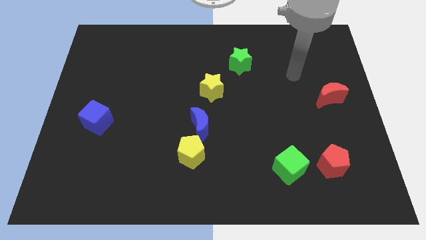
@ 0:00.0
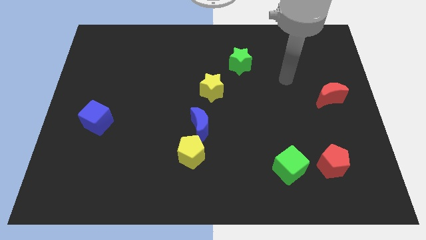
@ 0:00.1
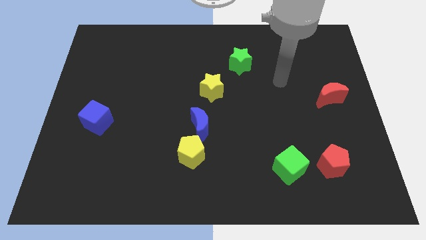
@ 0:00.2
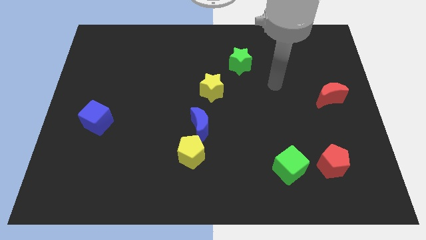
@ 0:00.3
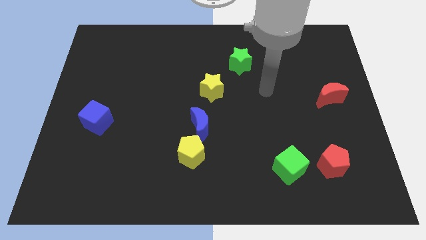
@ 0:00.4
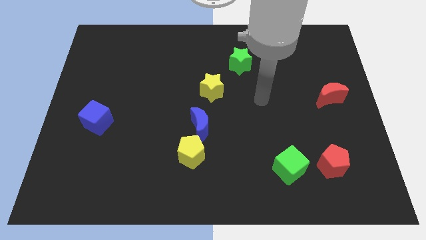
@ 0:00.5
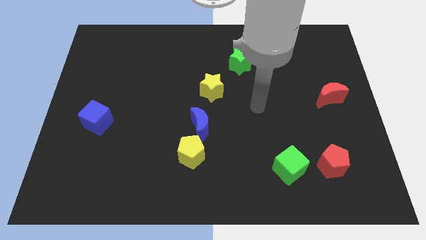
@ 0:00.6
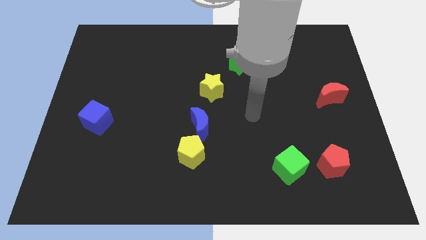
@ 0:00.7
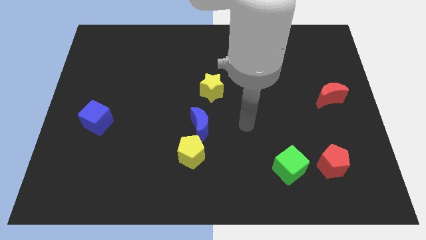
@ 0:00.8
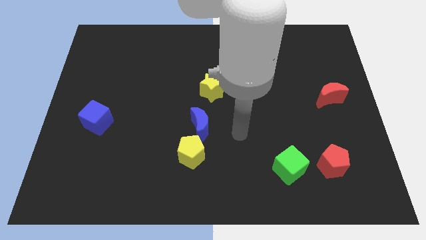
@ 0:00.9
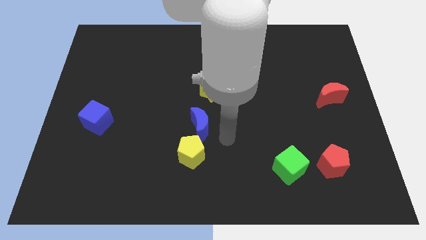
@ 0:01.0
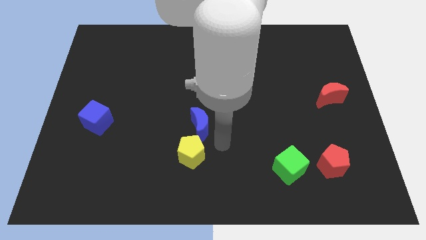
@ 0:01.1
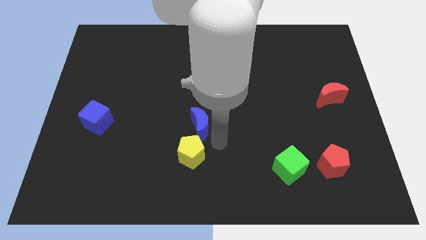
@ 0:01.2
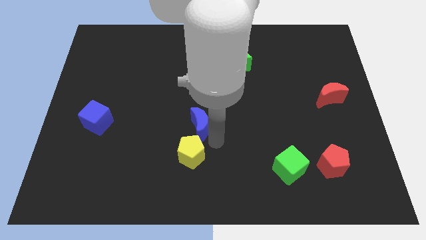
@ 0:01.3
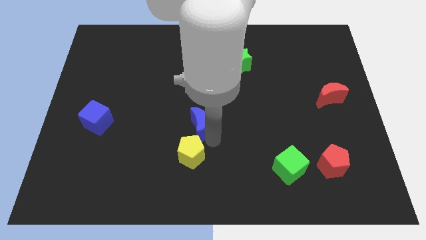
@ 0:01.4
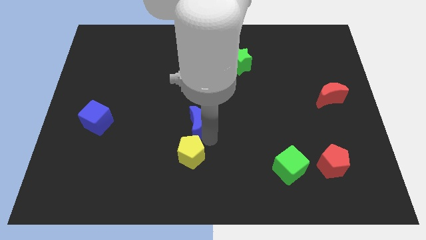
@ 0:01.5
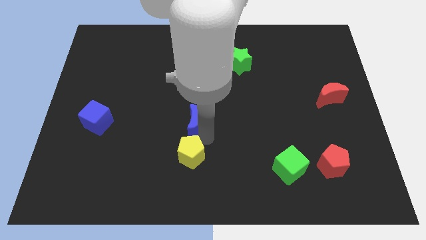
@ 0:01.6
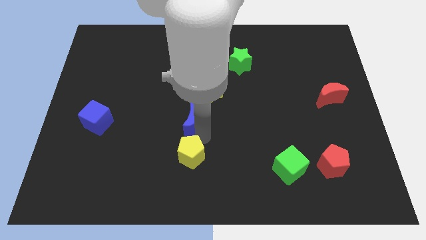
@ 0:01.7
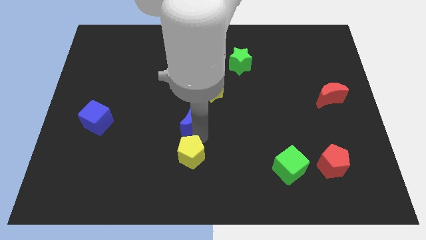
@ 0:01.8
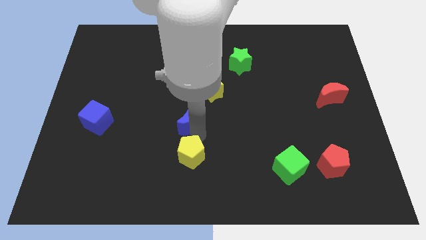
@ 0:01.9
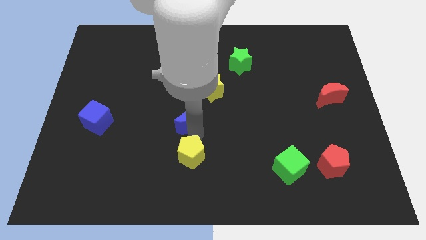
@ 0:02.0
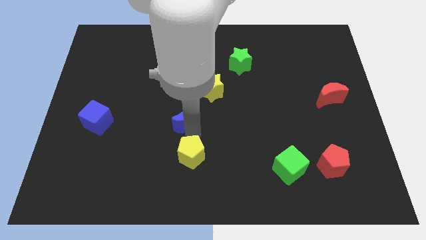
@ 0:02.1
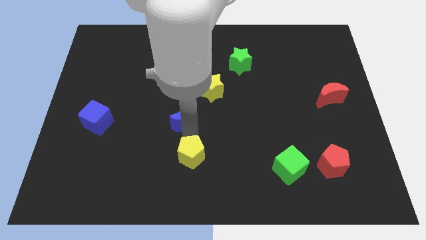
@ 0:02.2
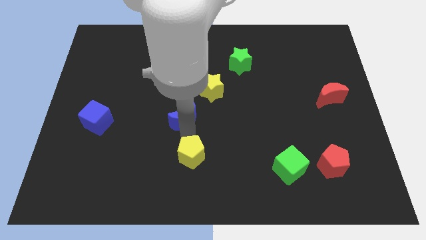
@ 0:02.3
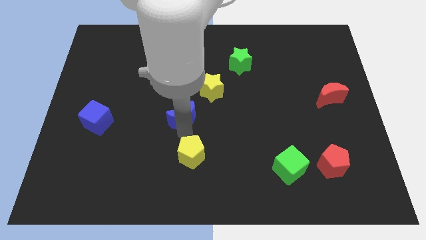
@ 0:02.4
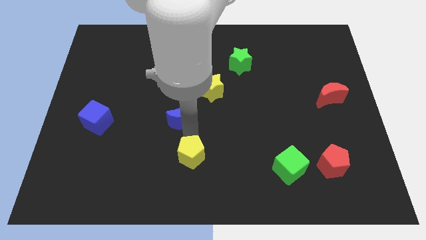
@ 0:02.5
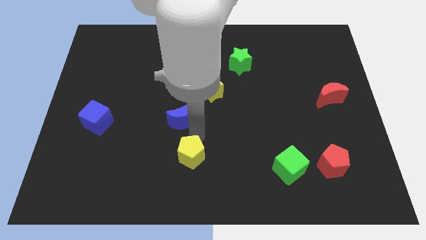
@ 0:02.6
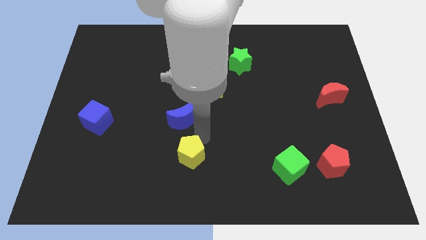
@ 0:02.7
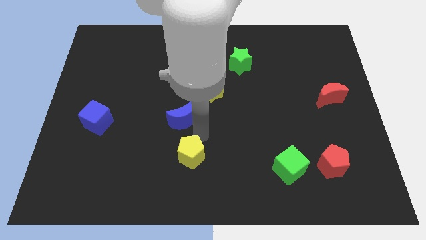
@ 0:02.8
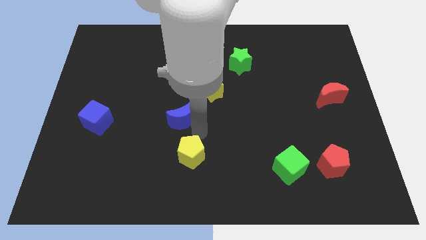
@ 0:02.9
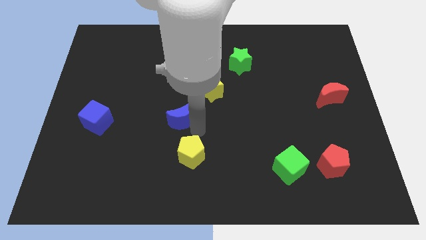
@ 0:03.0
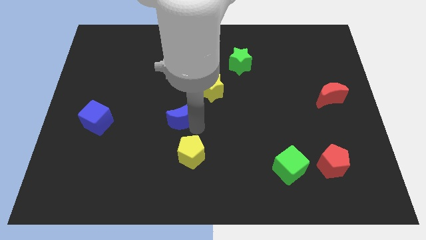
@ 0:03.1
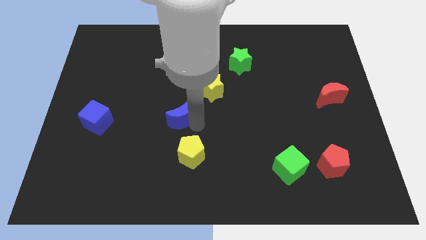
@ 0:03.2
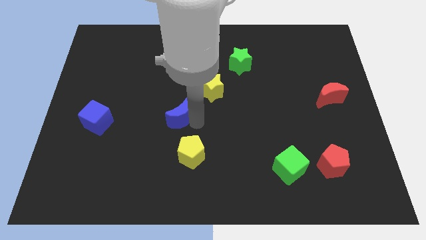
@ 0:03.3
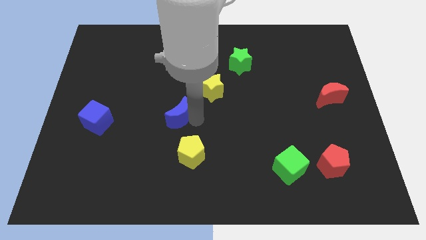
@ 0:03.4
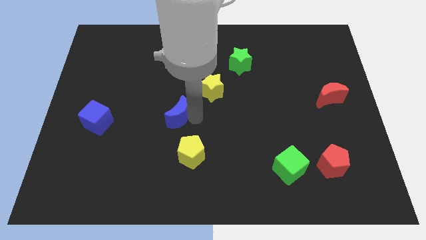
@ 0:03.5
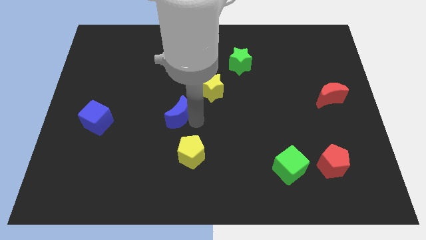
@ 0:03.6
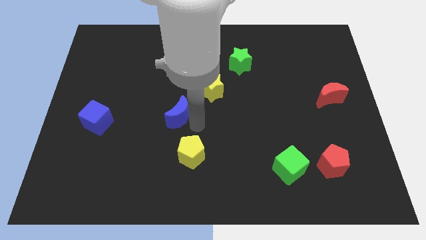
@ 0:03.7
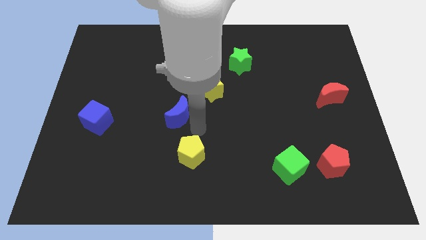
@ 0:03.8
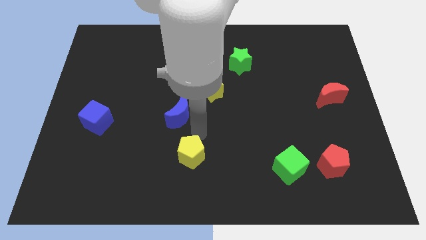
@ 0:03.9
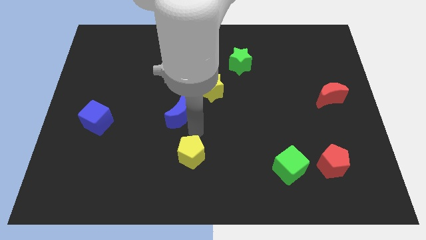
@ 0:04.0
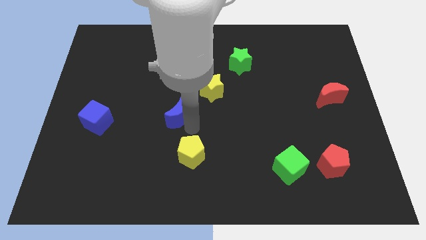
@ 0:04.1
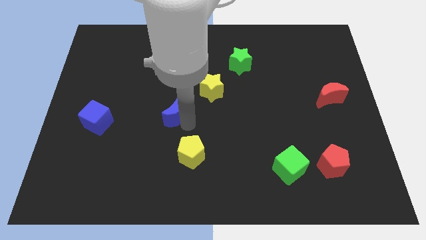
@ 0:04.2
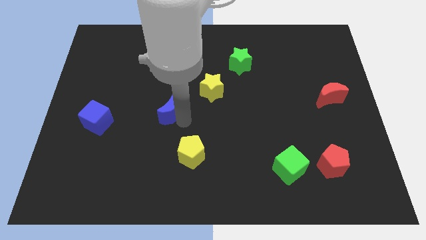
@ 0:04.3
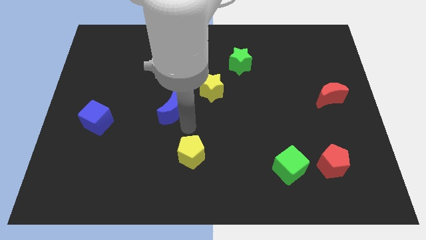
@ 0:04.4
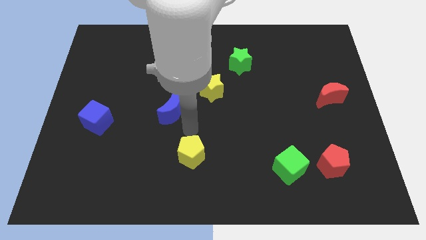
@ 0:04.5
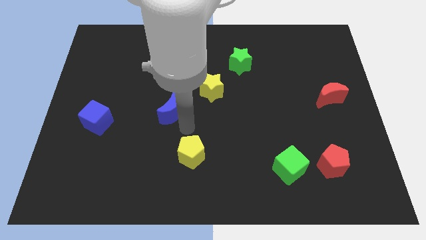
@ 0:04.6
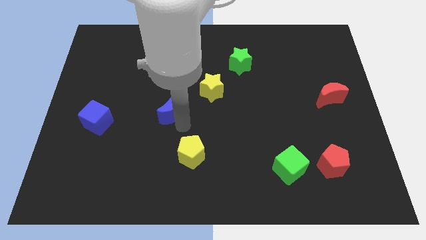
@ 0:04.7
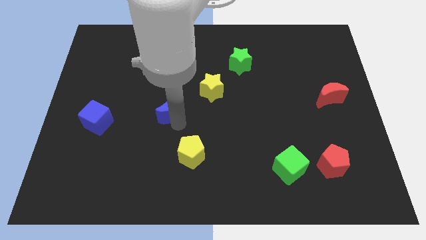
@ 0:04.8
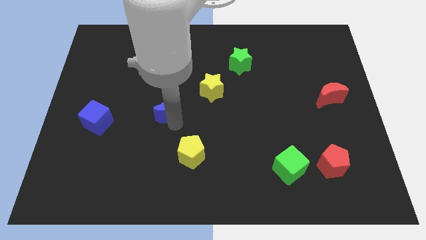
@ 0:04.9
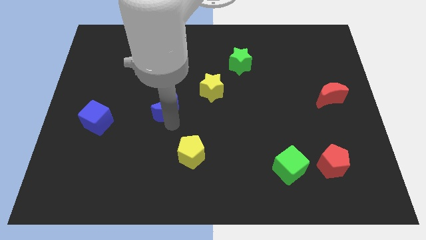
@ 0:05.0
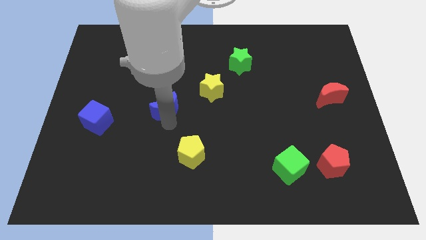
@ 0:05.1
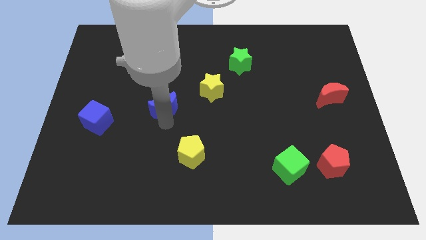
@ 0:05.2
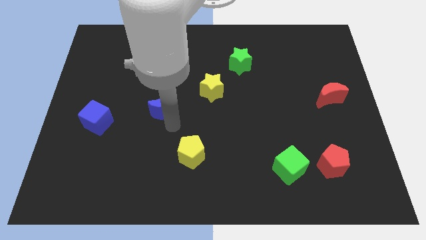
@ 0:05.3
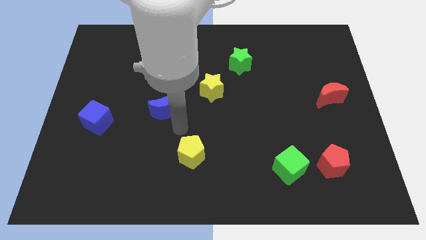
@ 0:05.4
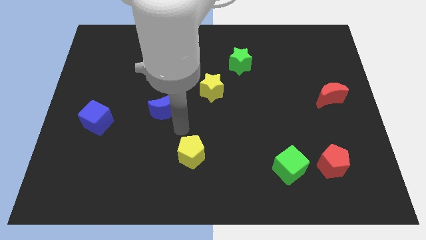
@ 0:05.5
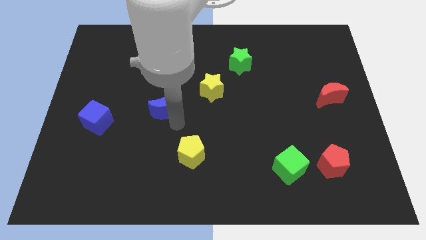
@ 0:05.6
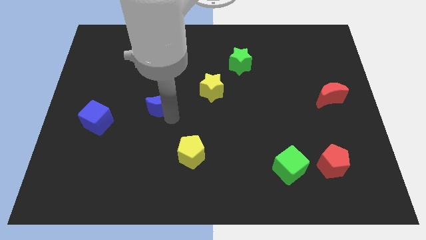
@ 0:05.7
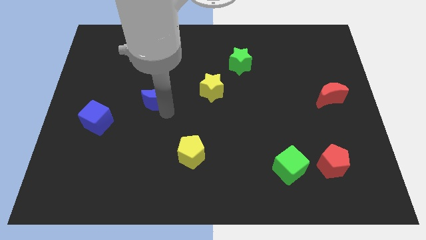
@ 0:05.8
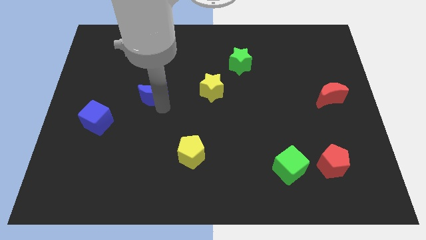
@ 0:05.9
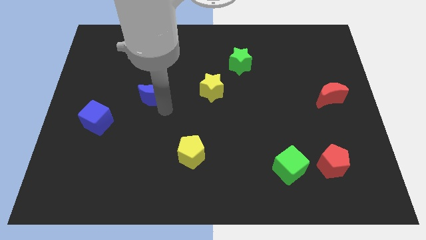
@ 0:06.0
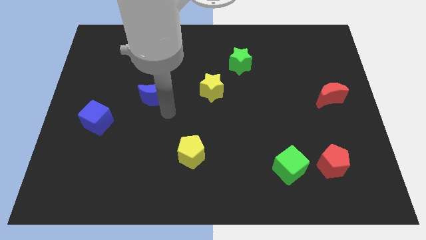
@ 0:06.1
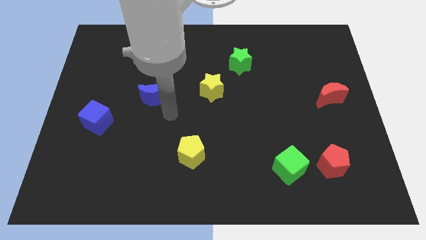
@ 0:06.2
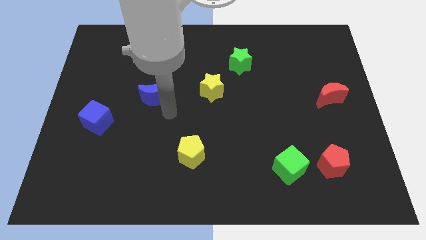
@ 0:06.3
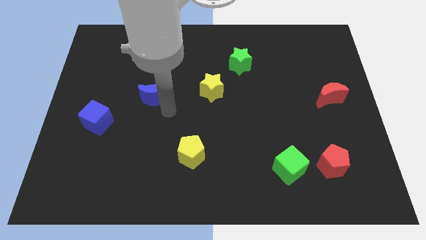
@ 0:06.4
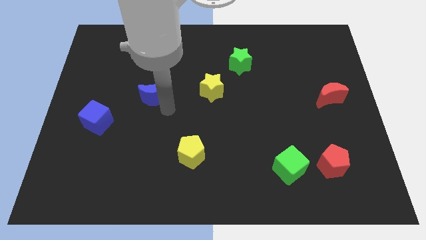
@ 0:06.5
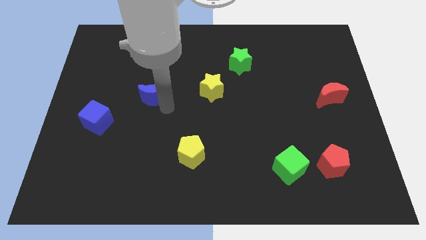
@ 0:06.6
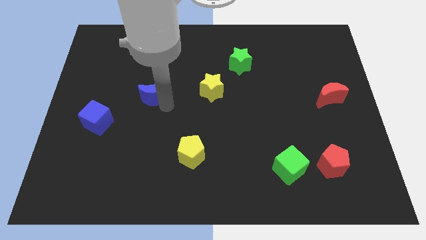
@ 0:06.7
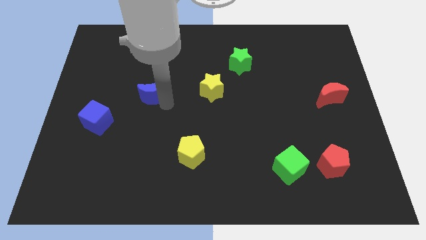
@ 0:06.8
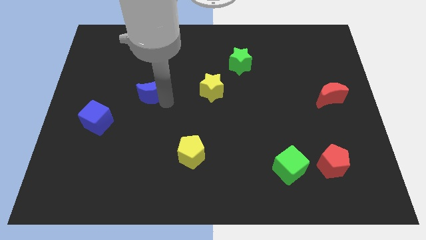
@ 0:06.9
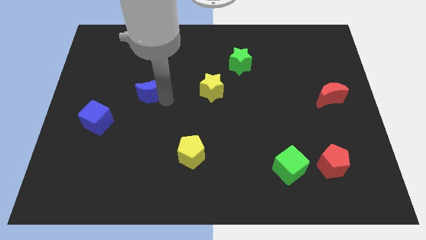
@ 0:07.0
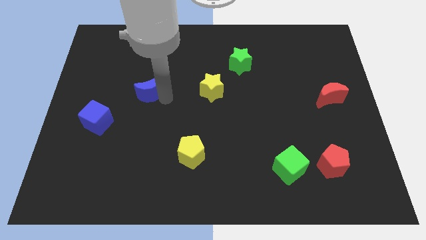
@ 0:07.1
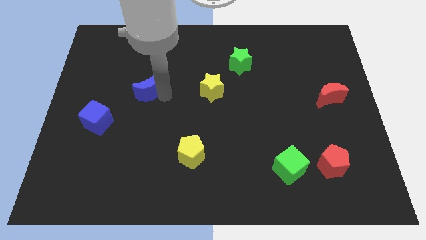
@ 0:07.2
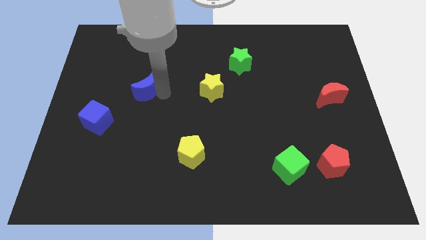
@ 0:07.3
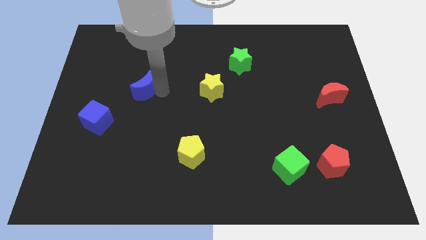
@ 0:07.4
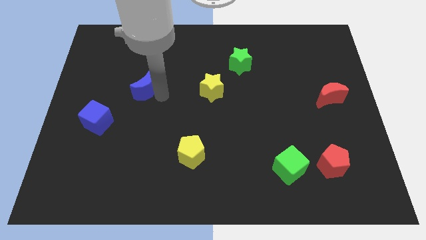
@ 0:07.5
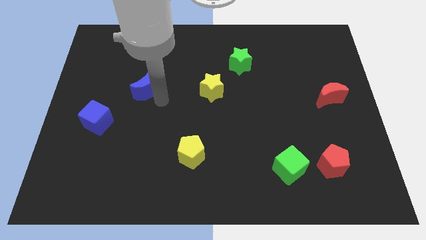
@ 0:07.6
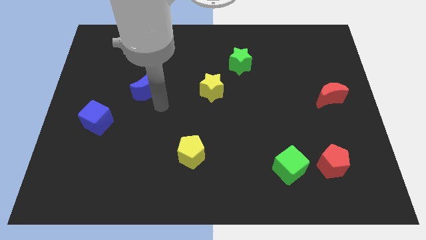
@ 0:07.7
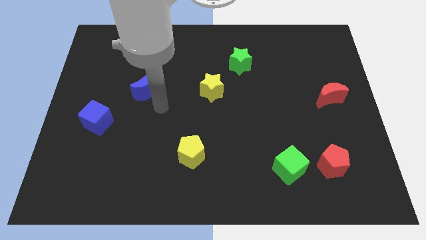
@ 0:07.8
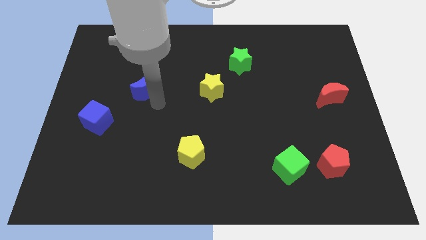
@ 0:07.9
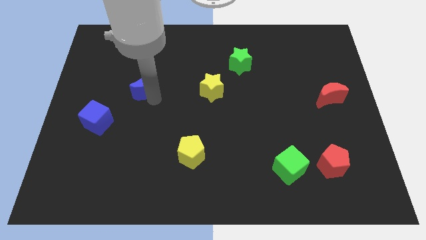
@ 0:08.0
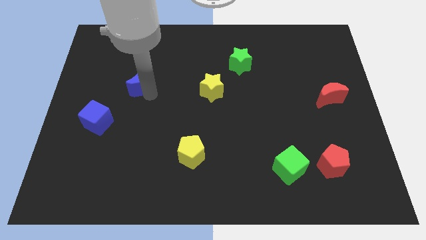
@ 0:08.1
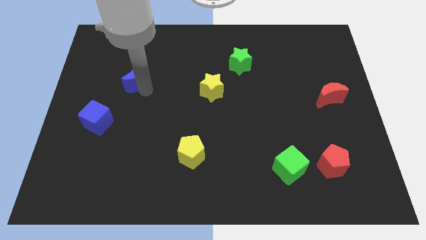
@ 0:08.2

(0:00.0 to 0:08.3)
push the blue moon upwards and to the left
